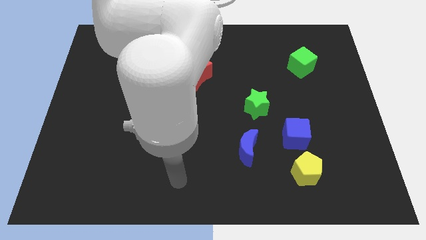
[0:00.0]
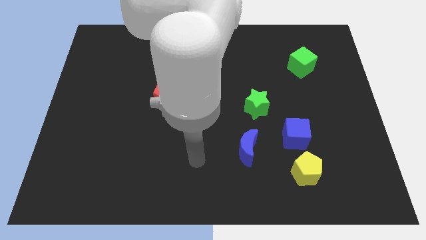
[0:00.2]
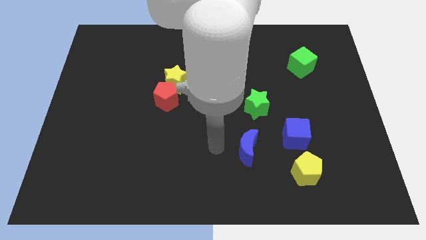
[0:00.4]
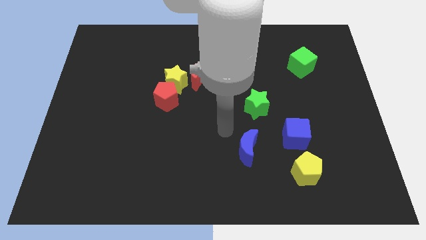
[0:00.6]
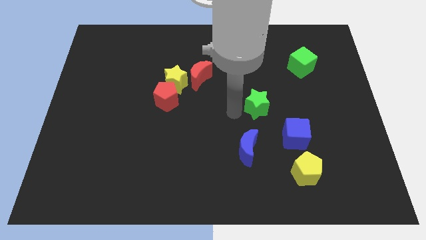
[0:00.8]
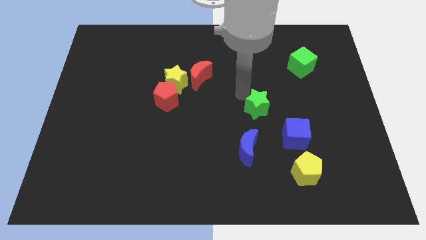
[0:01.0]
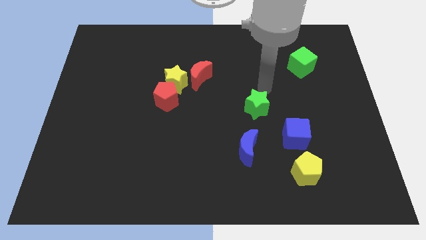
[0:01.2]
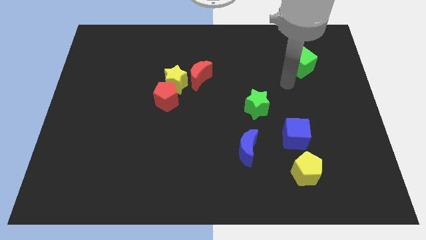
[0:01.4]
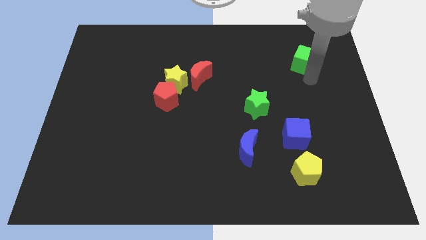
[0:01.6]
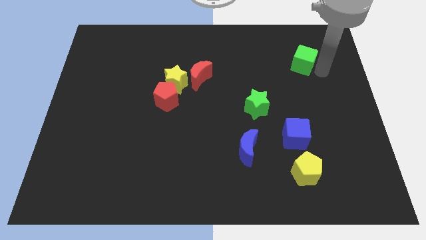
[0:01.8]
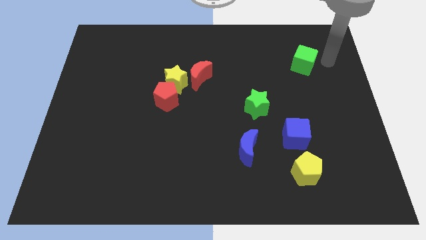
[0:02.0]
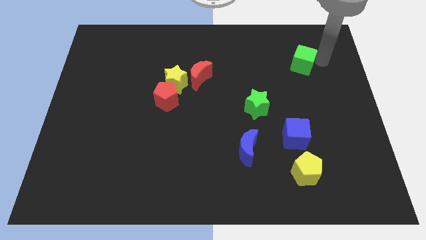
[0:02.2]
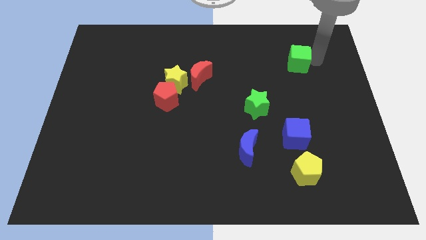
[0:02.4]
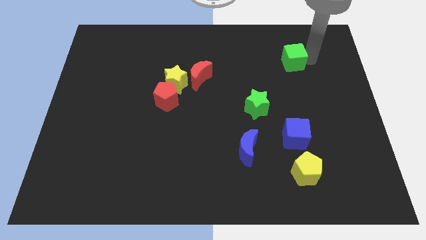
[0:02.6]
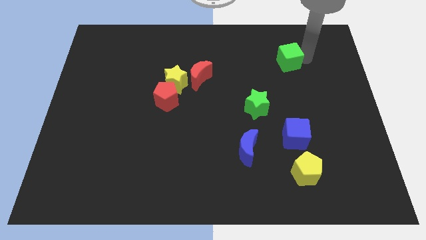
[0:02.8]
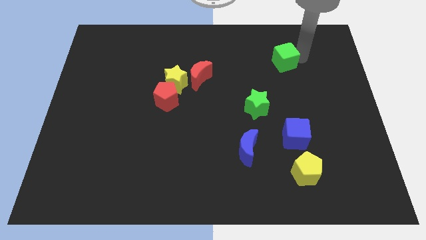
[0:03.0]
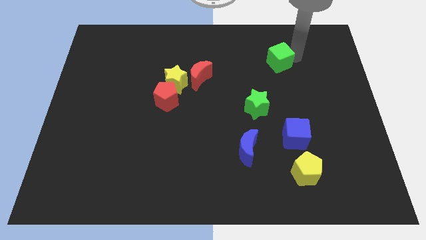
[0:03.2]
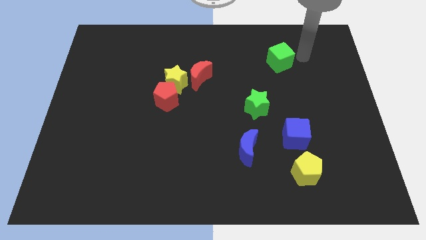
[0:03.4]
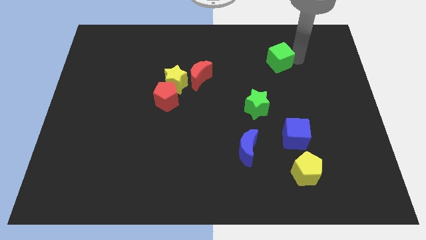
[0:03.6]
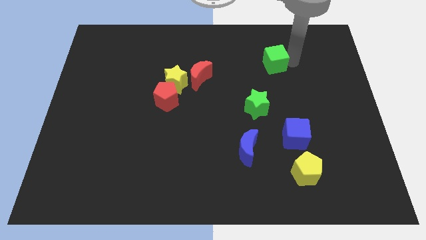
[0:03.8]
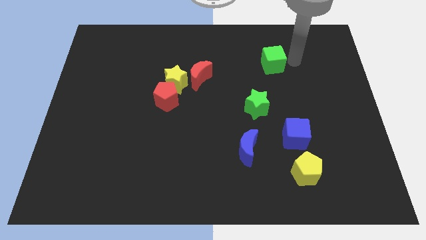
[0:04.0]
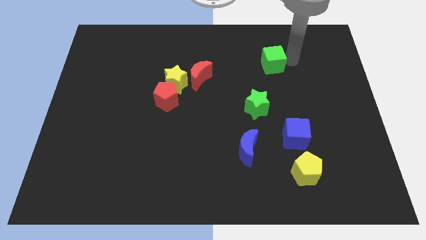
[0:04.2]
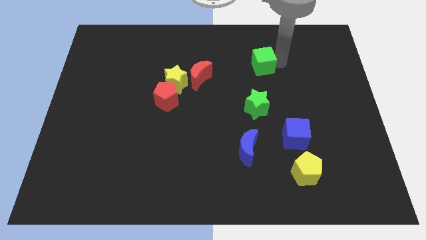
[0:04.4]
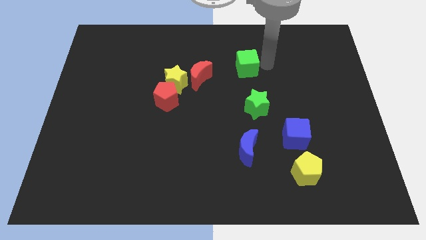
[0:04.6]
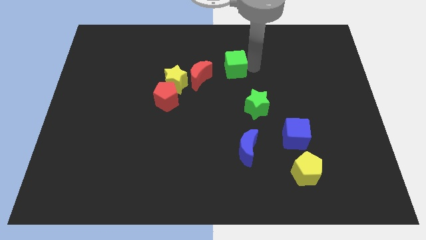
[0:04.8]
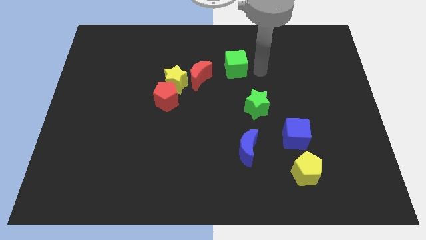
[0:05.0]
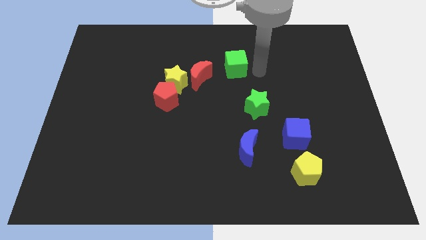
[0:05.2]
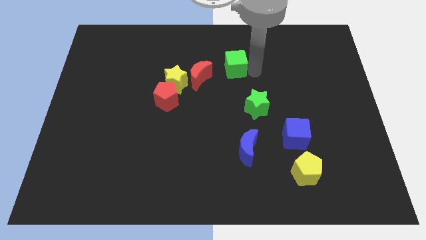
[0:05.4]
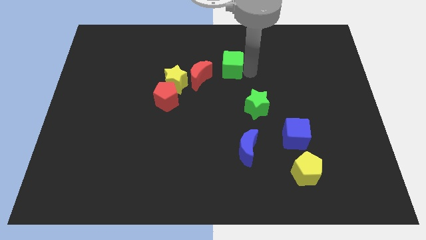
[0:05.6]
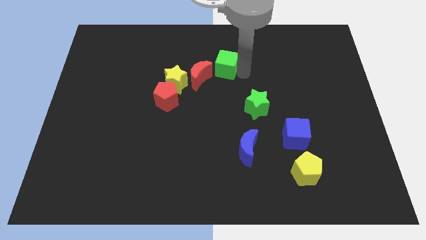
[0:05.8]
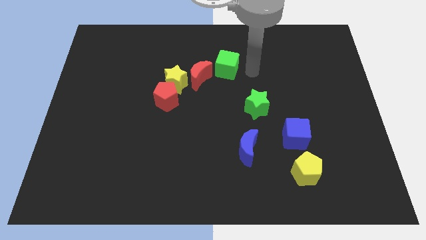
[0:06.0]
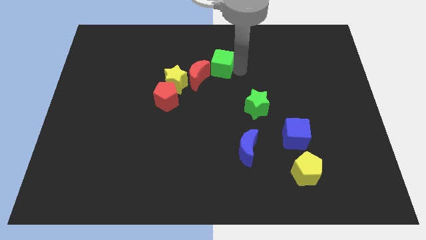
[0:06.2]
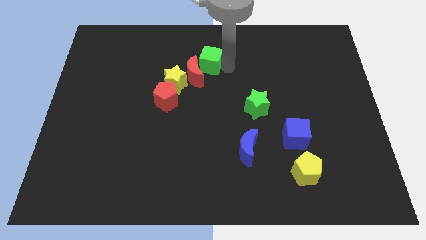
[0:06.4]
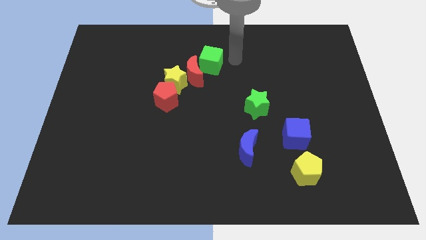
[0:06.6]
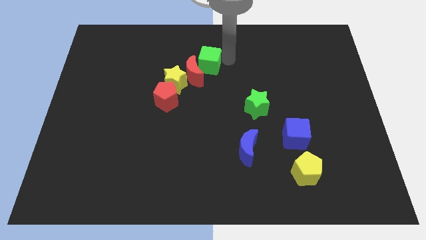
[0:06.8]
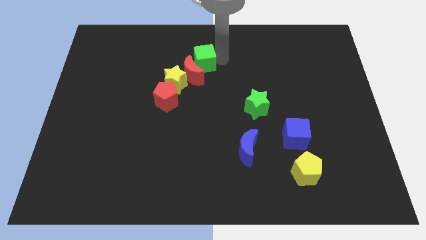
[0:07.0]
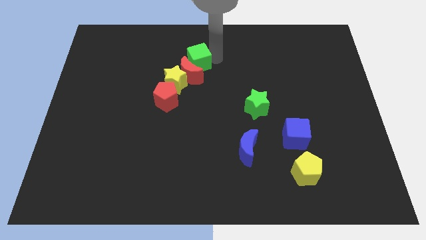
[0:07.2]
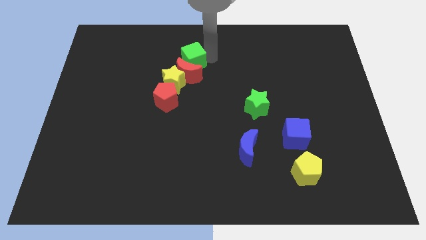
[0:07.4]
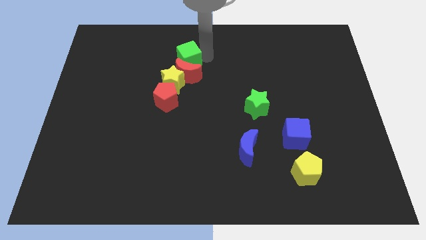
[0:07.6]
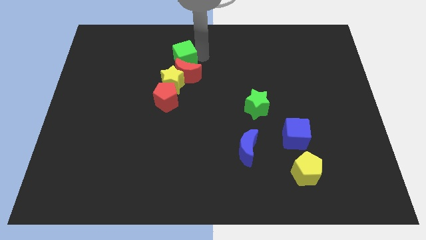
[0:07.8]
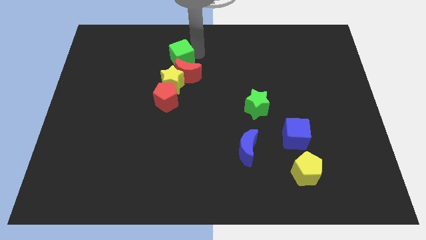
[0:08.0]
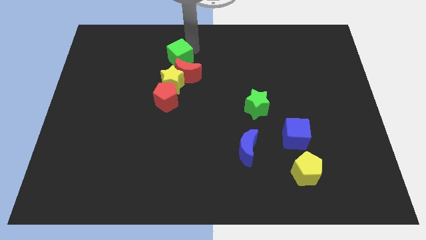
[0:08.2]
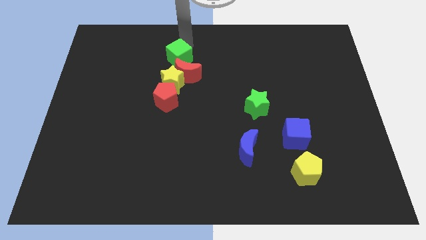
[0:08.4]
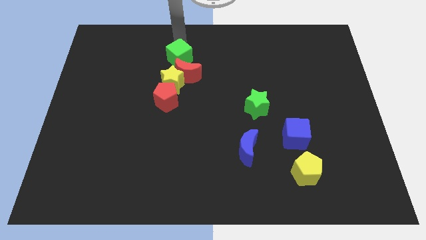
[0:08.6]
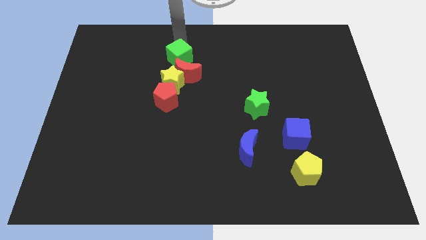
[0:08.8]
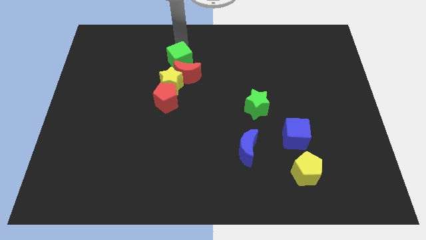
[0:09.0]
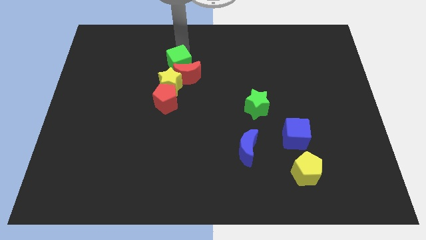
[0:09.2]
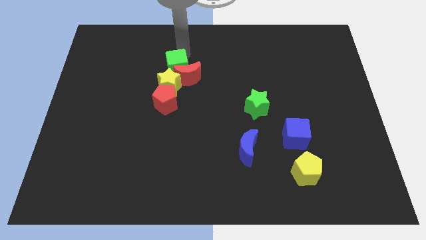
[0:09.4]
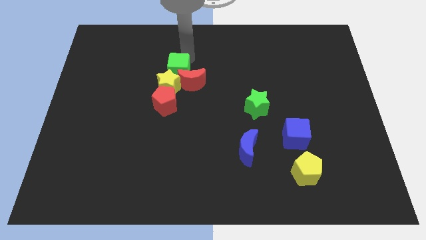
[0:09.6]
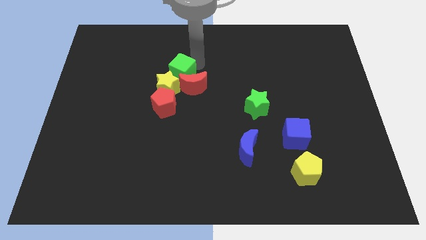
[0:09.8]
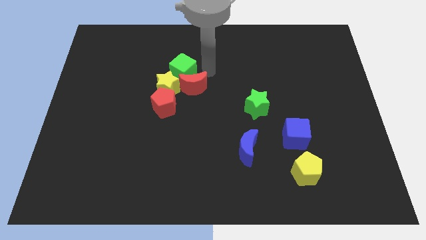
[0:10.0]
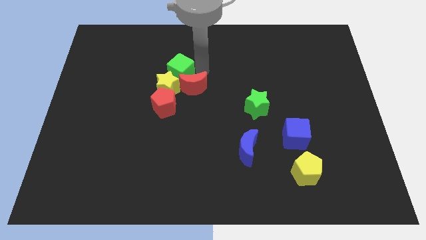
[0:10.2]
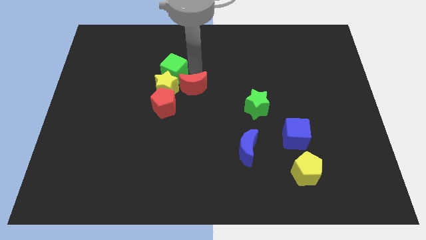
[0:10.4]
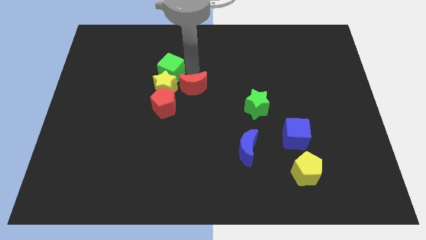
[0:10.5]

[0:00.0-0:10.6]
slide the green cube to the top left of the yellow star

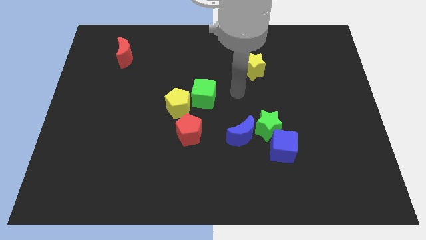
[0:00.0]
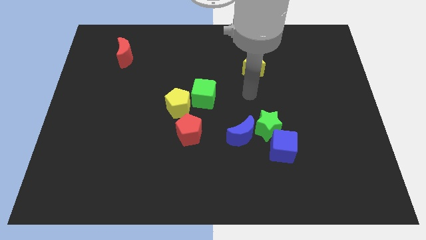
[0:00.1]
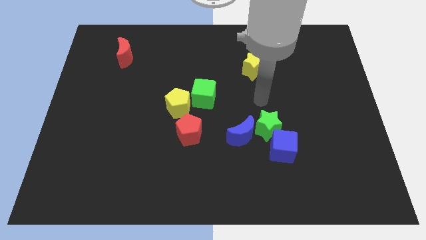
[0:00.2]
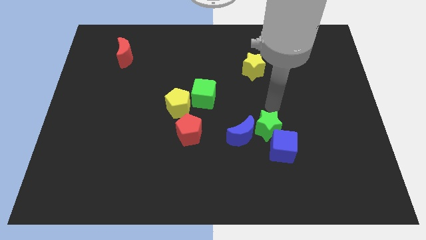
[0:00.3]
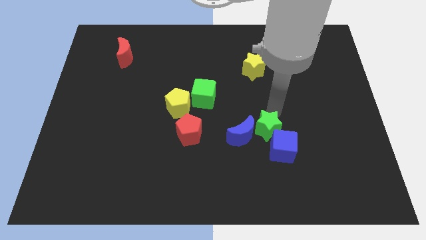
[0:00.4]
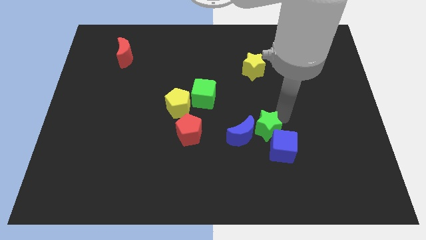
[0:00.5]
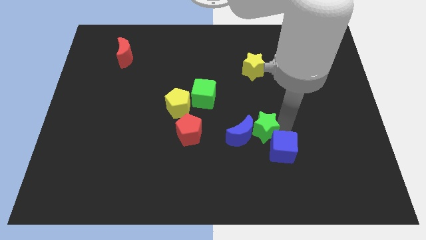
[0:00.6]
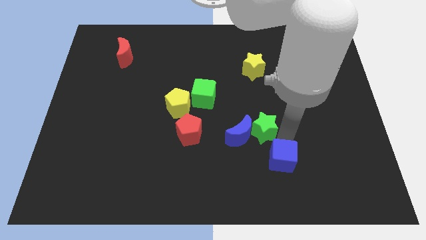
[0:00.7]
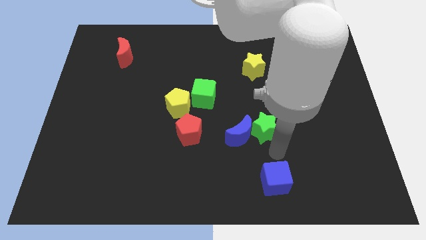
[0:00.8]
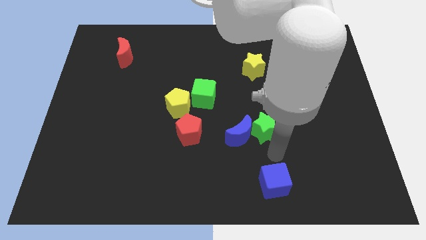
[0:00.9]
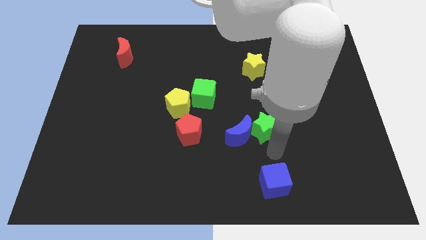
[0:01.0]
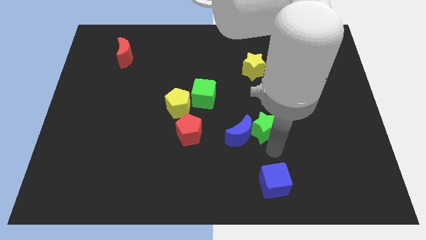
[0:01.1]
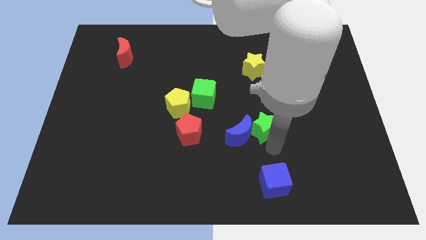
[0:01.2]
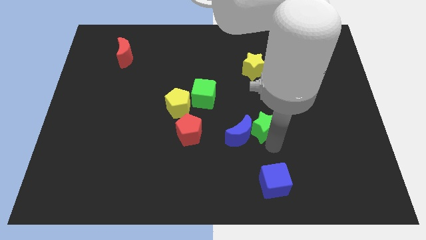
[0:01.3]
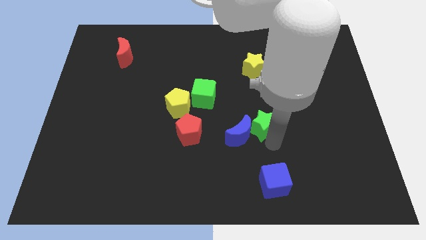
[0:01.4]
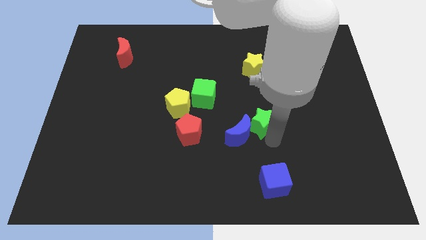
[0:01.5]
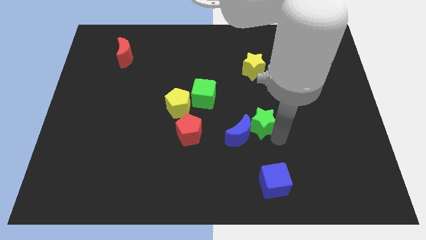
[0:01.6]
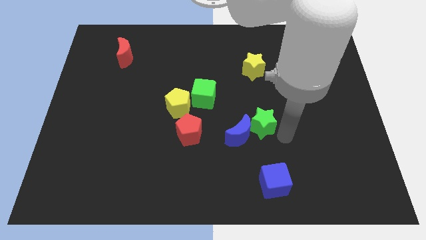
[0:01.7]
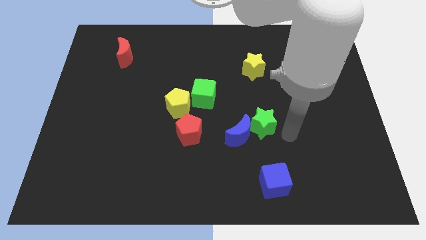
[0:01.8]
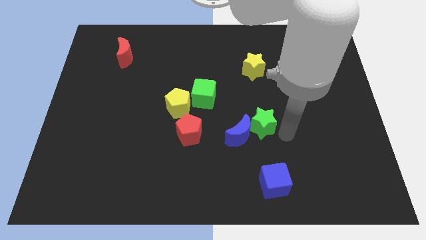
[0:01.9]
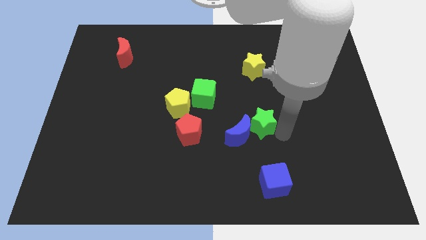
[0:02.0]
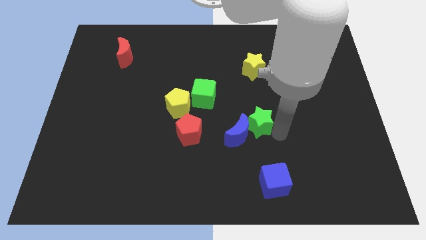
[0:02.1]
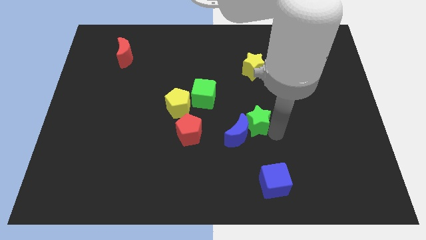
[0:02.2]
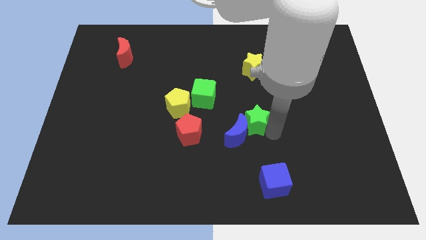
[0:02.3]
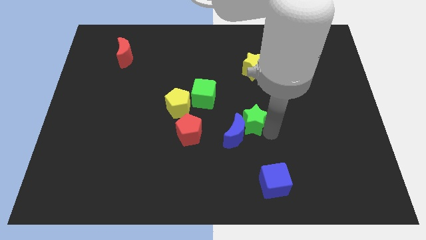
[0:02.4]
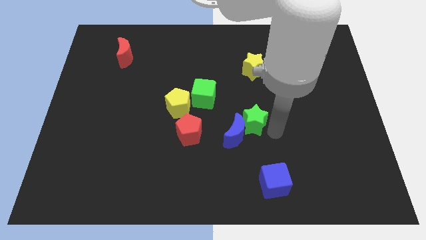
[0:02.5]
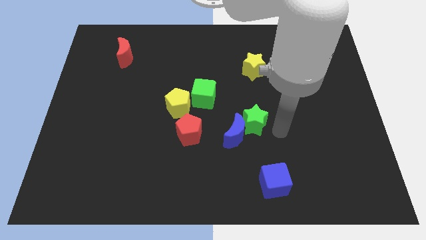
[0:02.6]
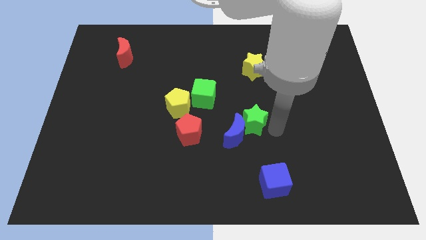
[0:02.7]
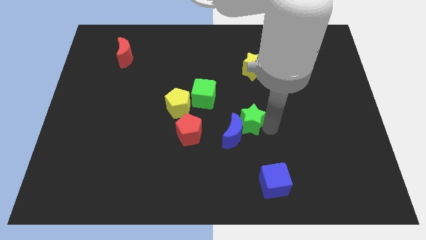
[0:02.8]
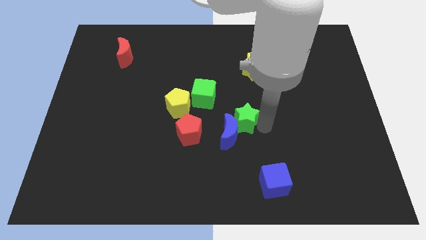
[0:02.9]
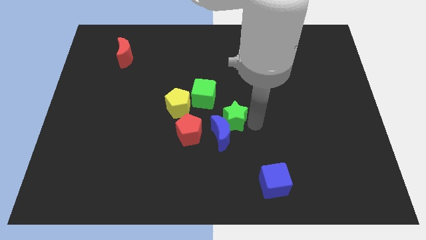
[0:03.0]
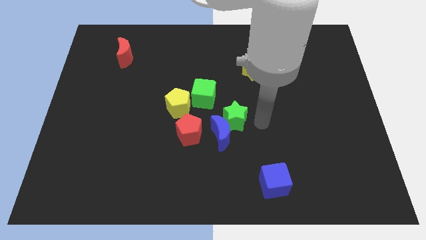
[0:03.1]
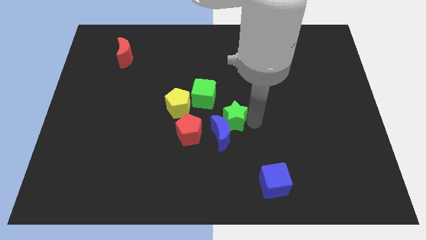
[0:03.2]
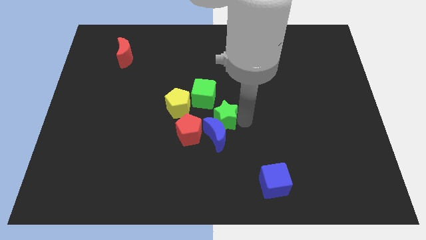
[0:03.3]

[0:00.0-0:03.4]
put the green star to the top left of the blue moon
